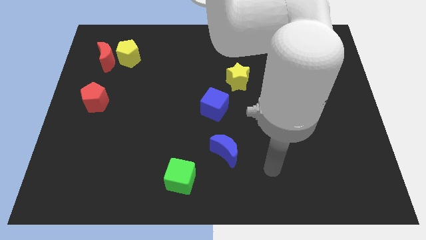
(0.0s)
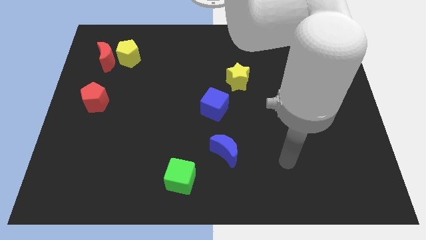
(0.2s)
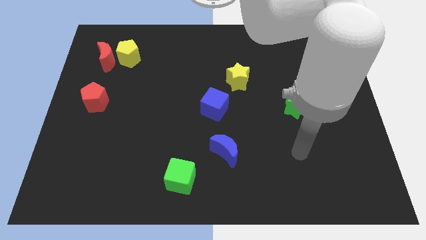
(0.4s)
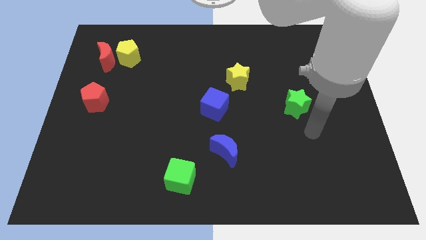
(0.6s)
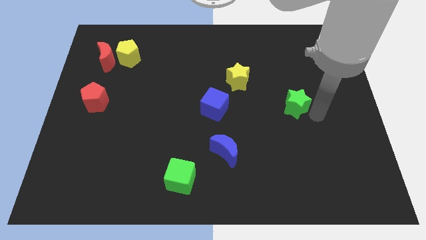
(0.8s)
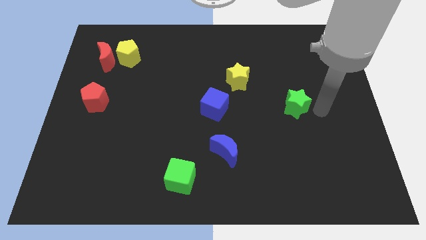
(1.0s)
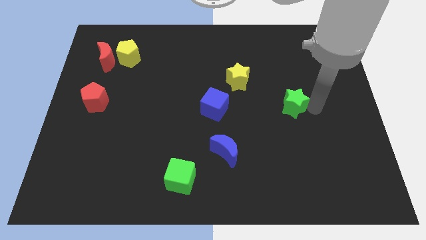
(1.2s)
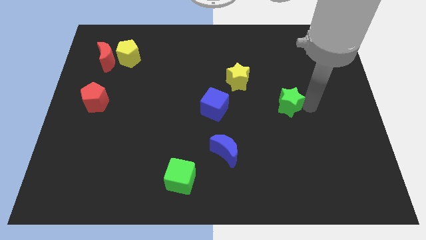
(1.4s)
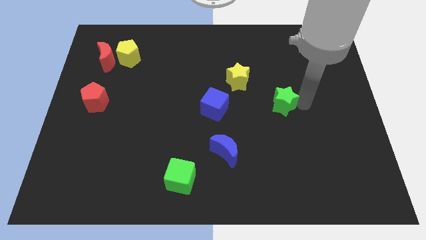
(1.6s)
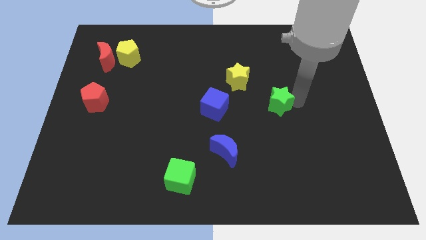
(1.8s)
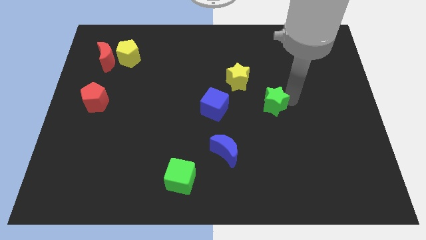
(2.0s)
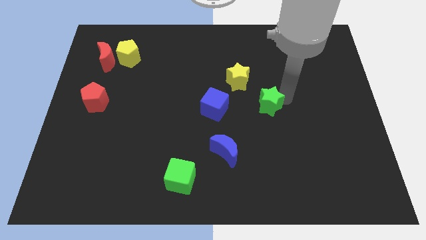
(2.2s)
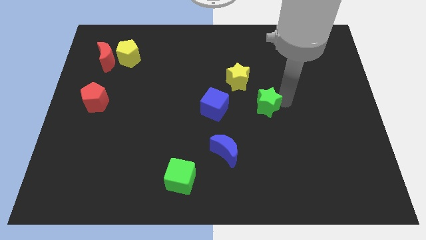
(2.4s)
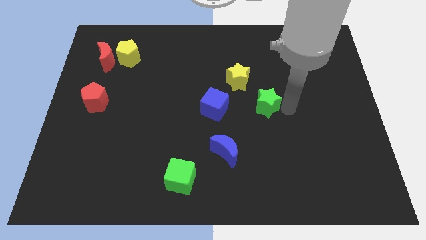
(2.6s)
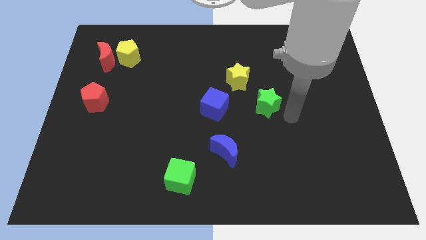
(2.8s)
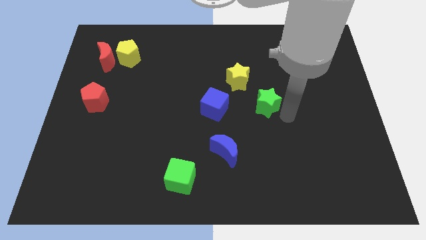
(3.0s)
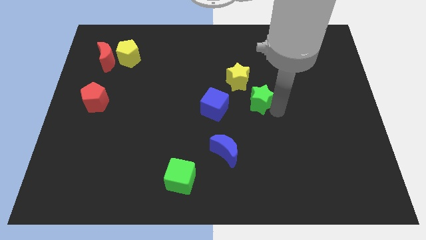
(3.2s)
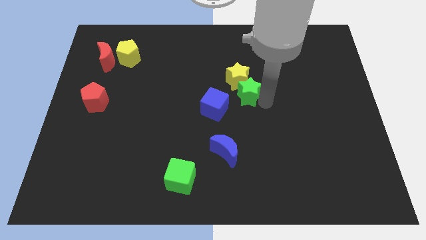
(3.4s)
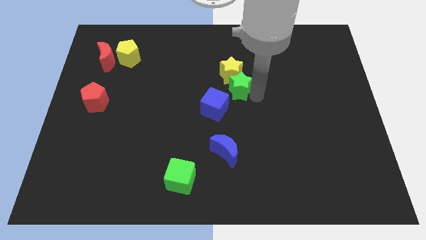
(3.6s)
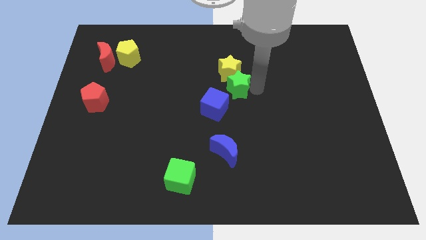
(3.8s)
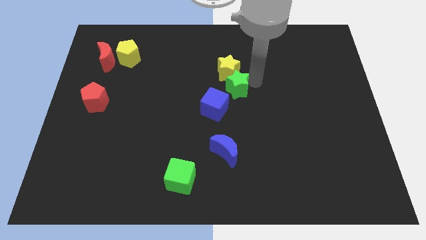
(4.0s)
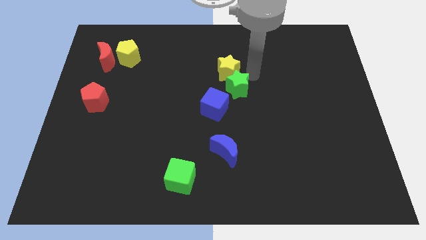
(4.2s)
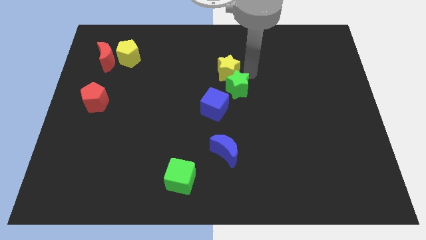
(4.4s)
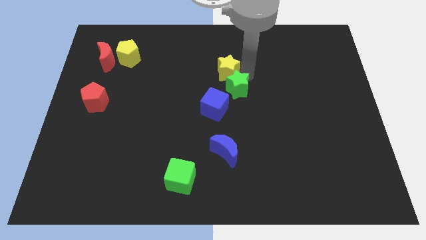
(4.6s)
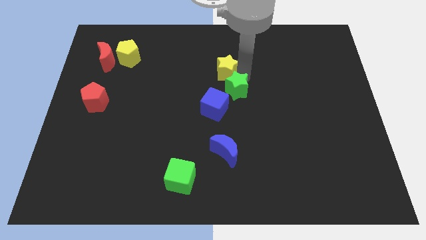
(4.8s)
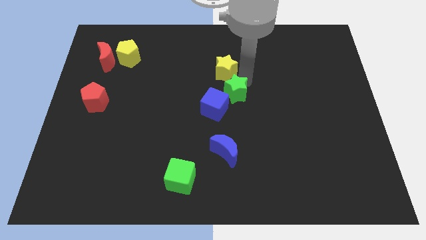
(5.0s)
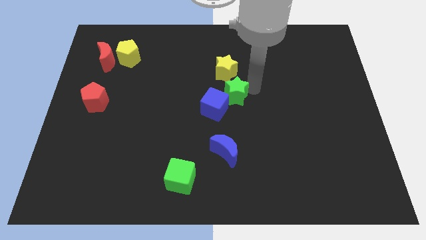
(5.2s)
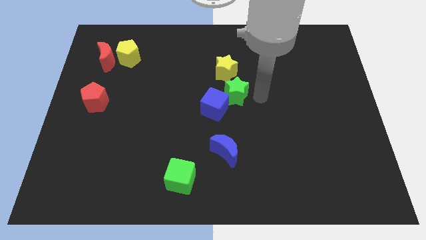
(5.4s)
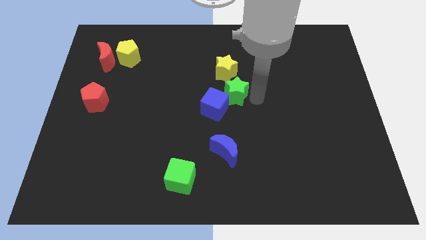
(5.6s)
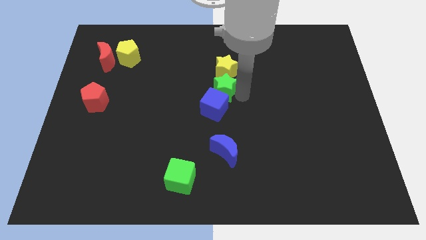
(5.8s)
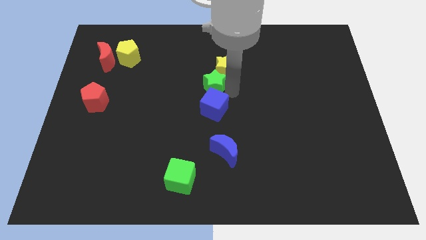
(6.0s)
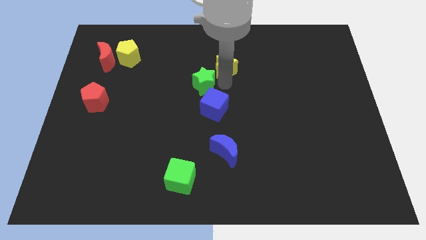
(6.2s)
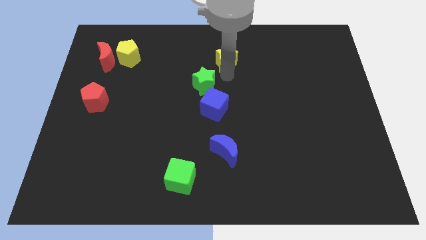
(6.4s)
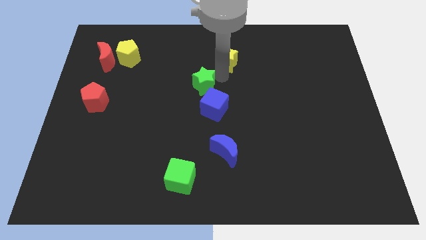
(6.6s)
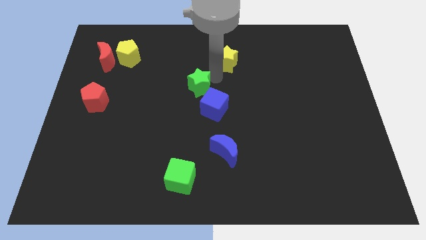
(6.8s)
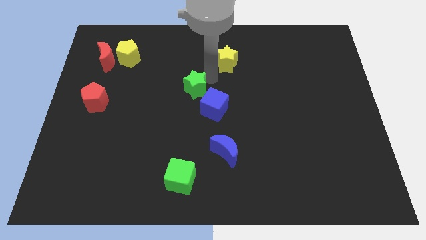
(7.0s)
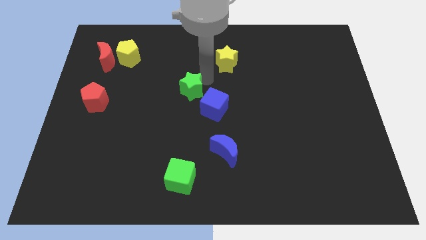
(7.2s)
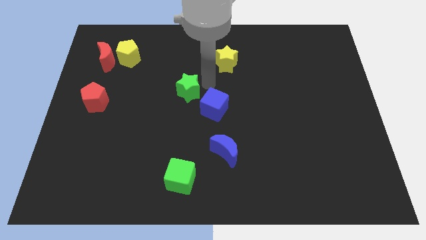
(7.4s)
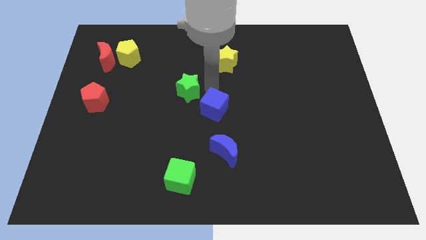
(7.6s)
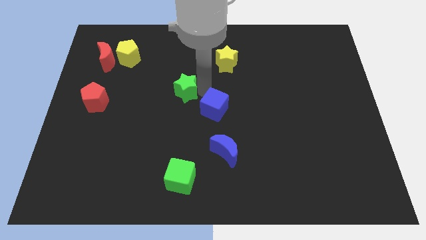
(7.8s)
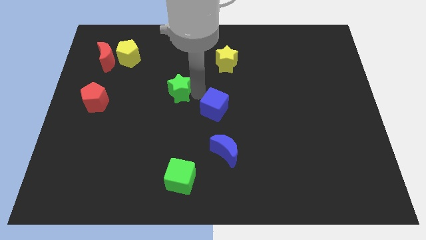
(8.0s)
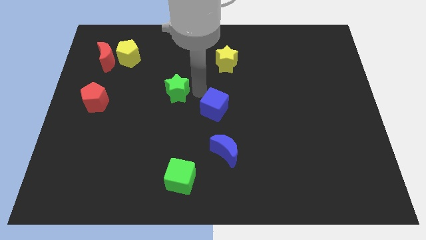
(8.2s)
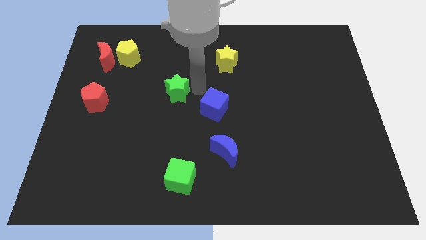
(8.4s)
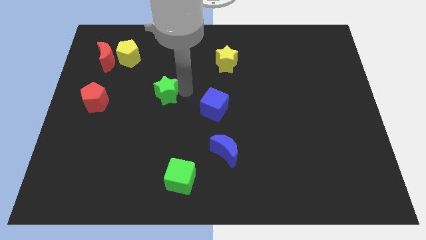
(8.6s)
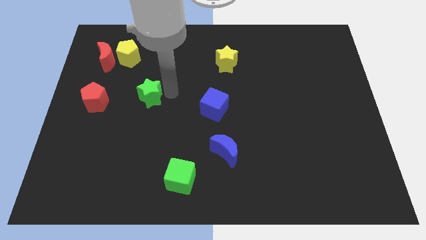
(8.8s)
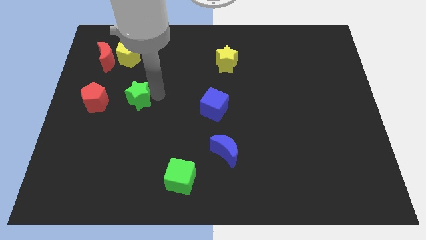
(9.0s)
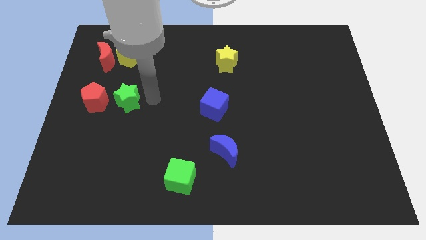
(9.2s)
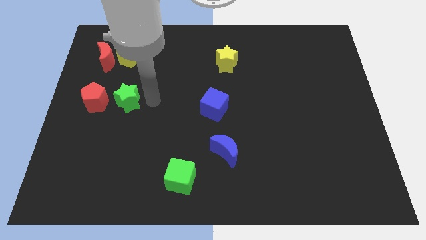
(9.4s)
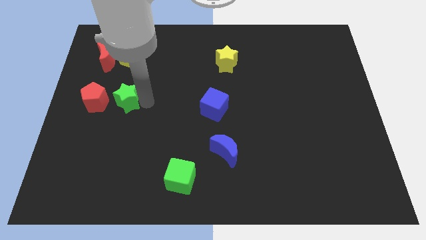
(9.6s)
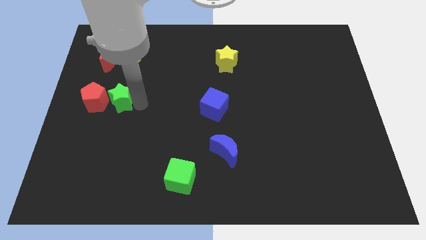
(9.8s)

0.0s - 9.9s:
move the green star close to the red pentagon

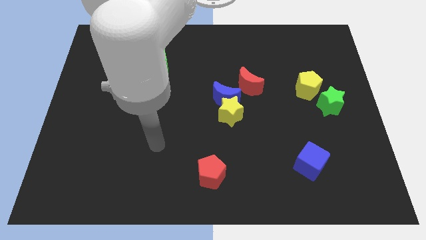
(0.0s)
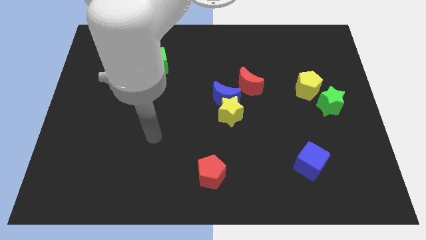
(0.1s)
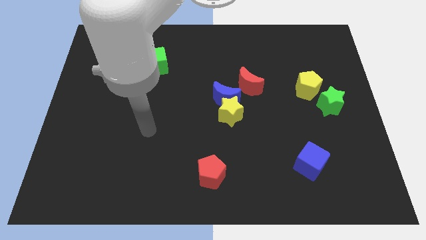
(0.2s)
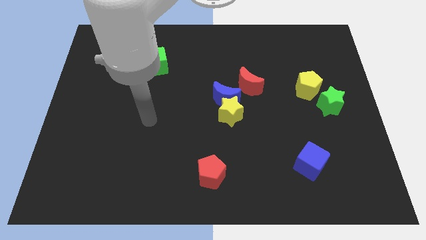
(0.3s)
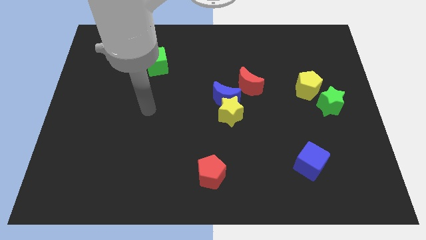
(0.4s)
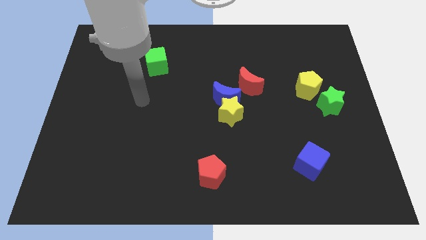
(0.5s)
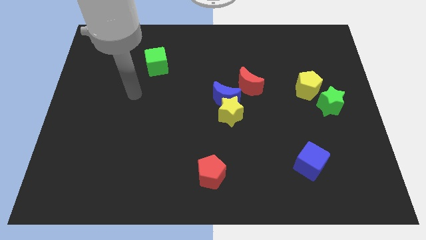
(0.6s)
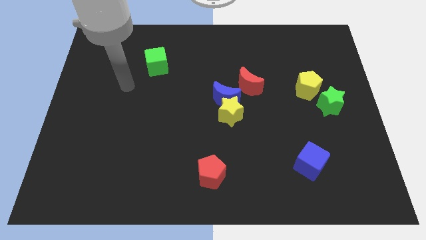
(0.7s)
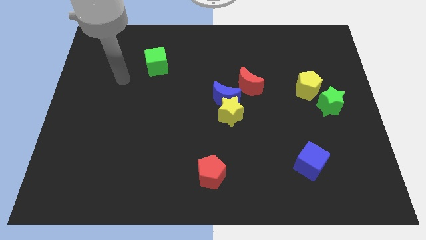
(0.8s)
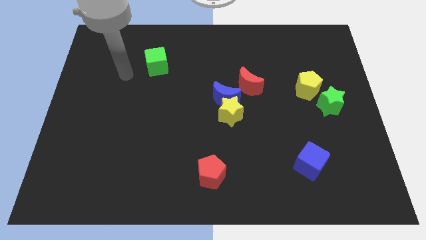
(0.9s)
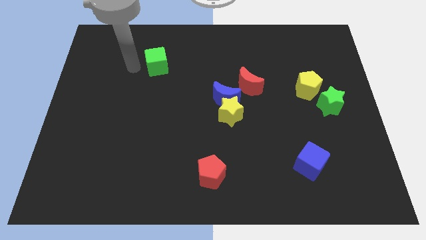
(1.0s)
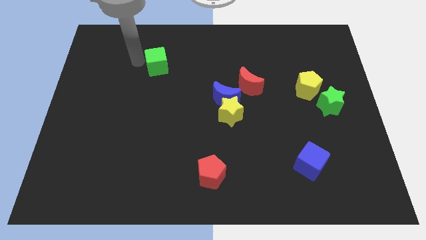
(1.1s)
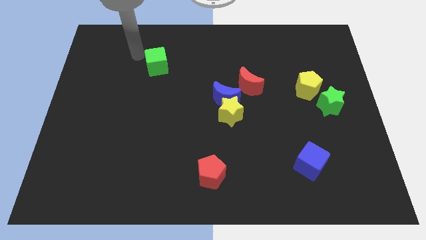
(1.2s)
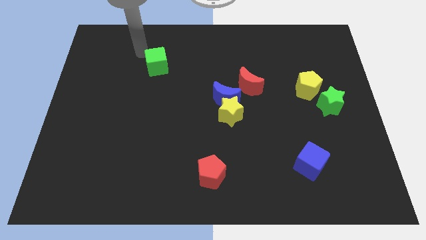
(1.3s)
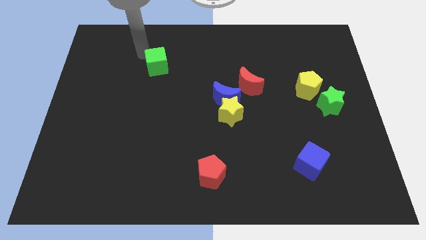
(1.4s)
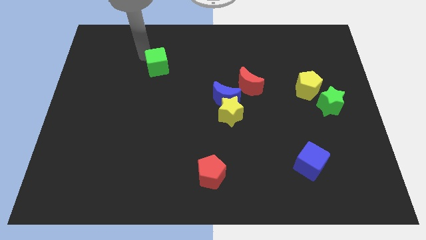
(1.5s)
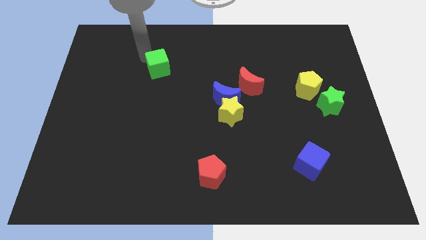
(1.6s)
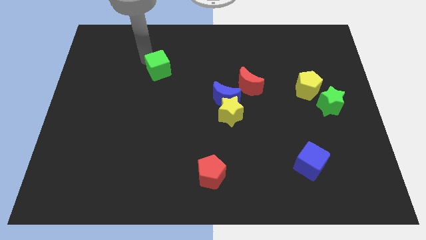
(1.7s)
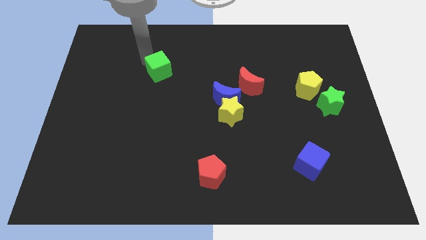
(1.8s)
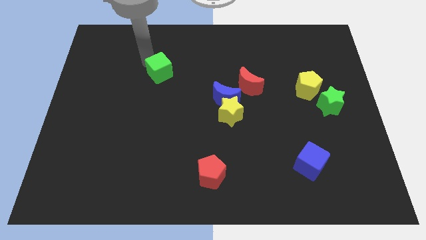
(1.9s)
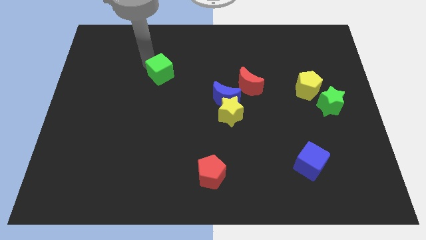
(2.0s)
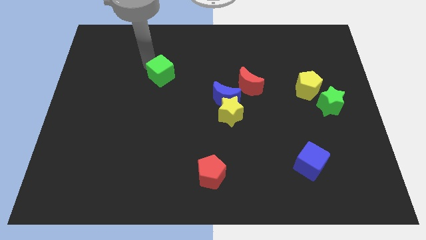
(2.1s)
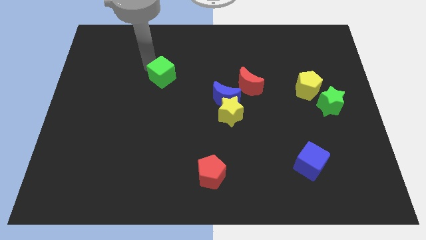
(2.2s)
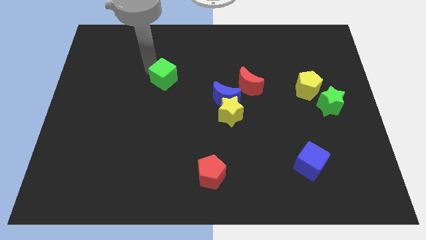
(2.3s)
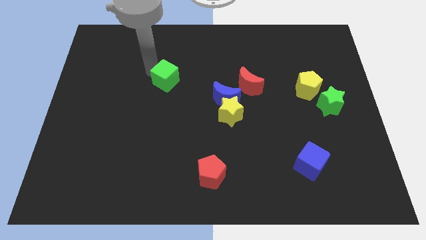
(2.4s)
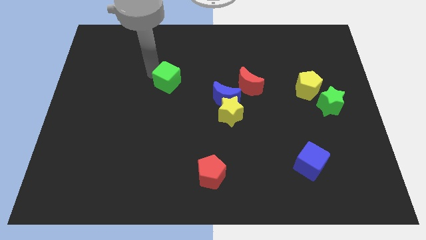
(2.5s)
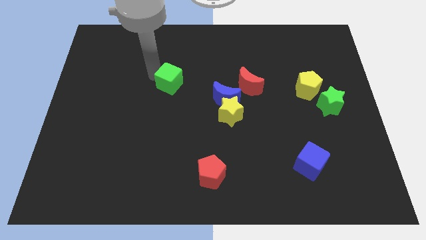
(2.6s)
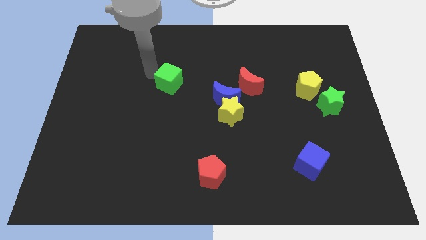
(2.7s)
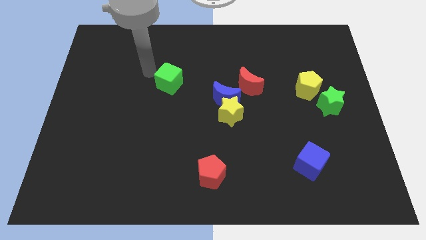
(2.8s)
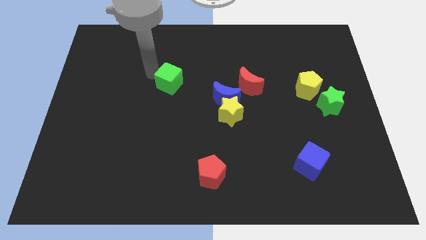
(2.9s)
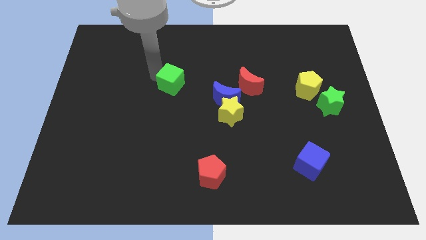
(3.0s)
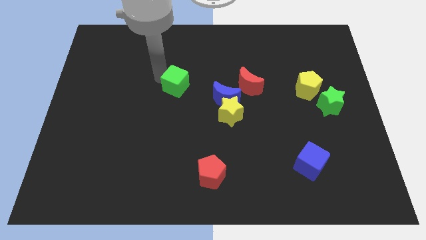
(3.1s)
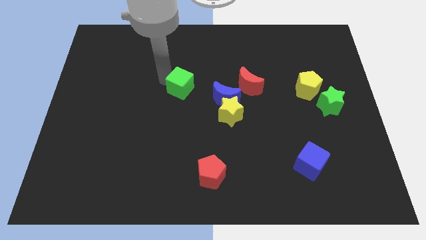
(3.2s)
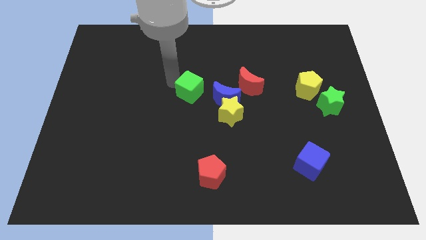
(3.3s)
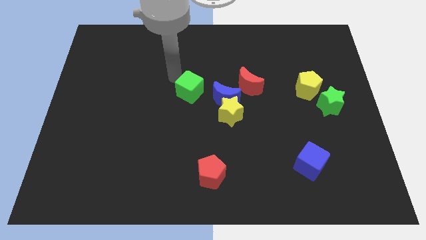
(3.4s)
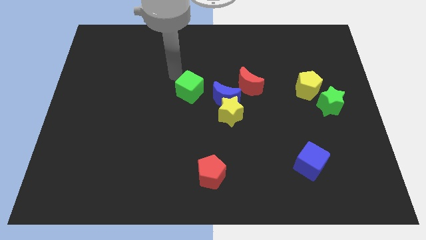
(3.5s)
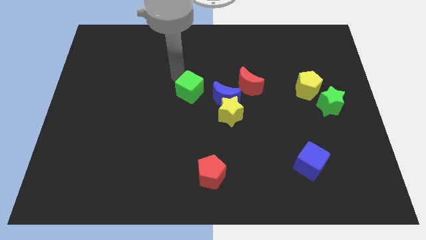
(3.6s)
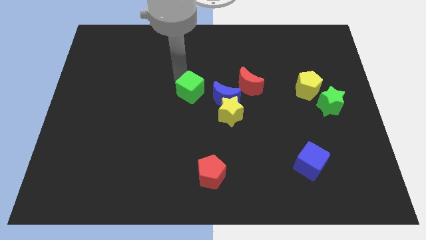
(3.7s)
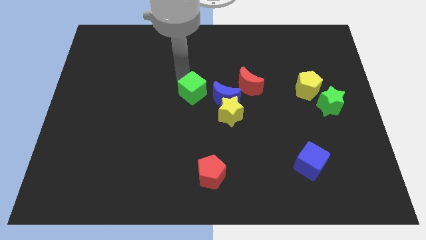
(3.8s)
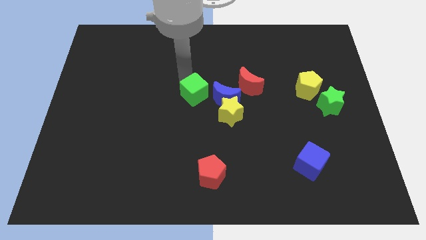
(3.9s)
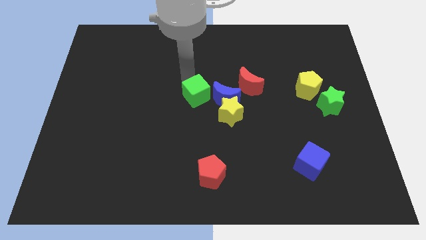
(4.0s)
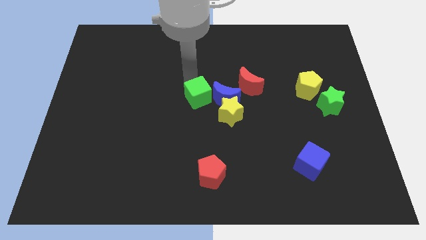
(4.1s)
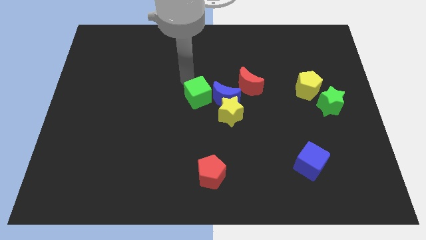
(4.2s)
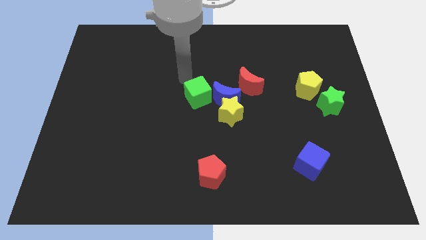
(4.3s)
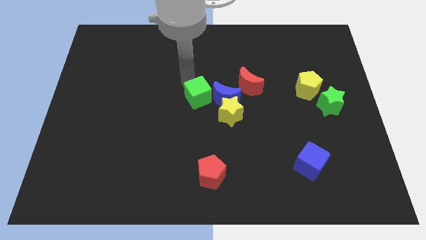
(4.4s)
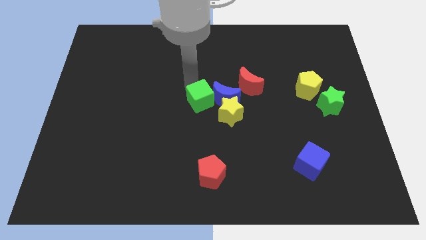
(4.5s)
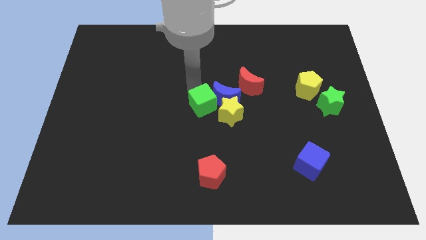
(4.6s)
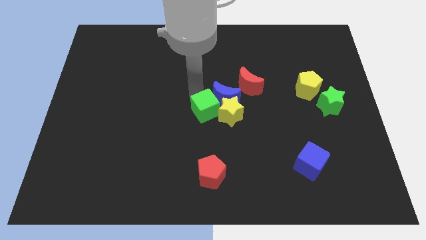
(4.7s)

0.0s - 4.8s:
slide the green cube to the yellow star
